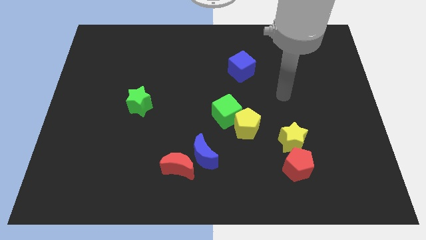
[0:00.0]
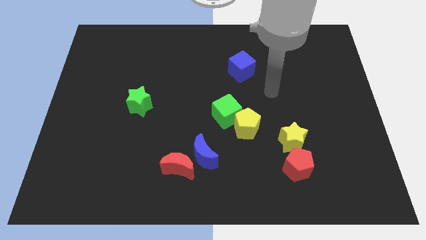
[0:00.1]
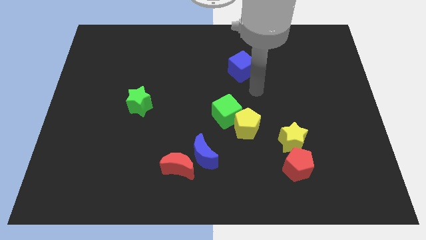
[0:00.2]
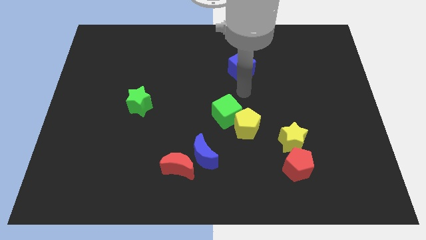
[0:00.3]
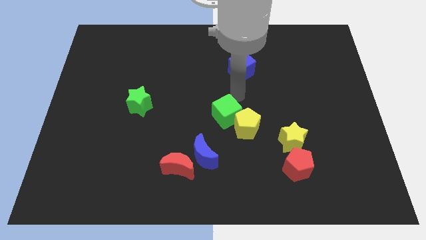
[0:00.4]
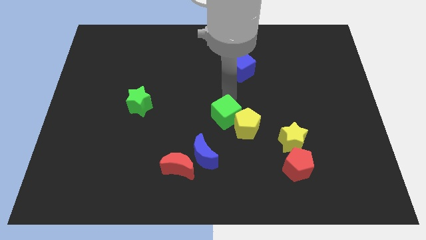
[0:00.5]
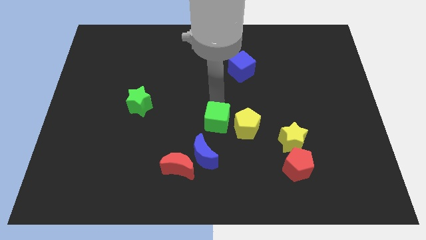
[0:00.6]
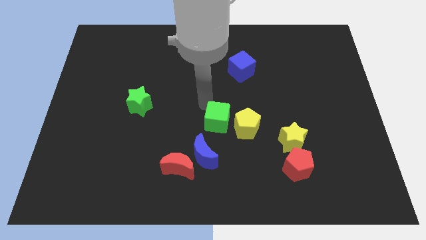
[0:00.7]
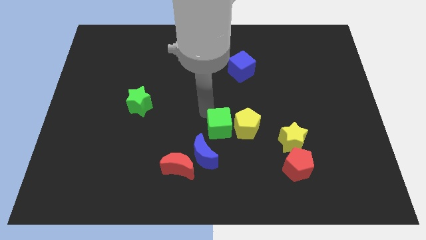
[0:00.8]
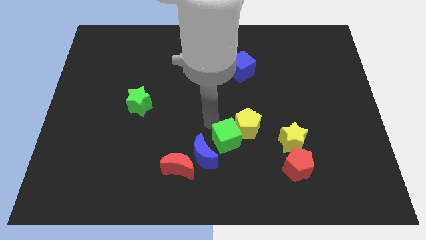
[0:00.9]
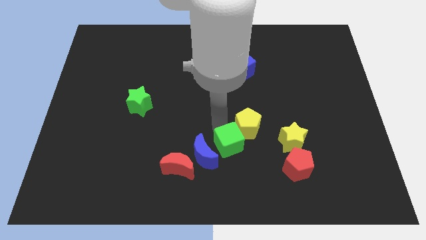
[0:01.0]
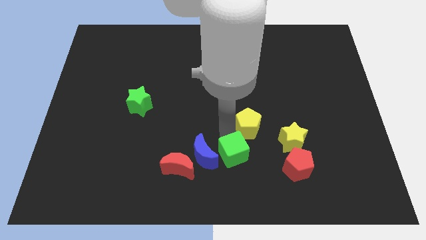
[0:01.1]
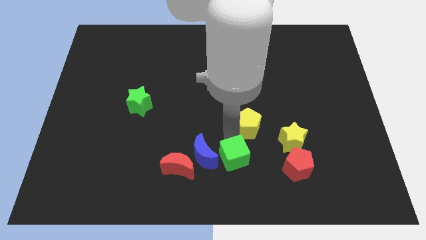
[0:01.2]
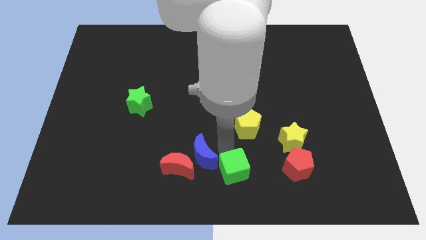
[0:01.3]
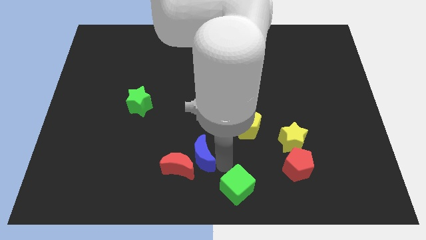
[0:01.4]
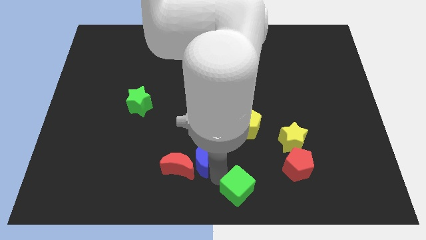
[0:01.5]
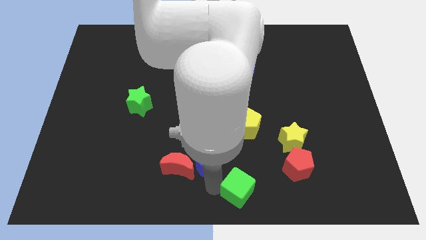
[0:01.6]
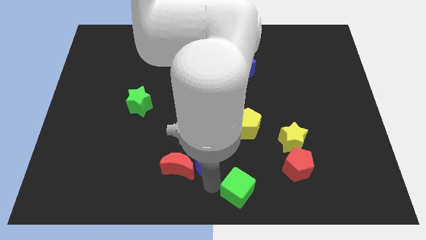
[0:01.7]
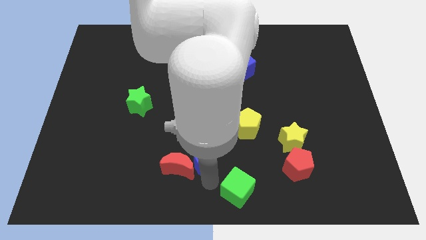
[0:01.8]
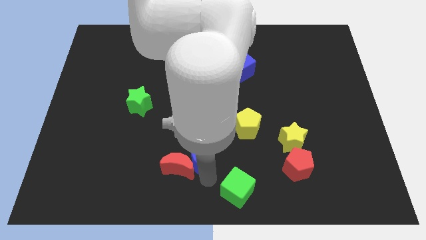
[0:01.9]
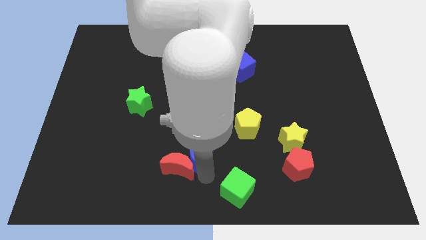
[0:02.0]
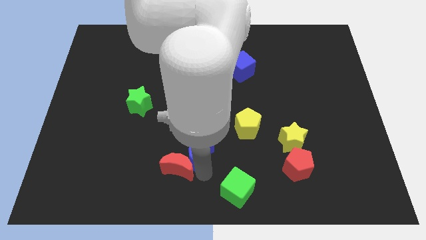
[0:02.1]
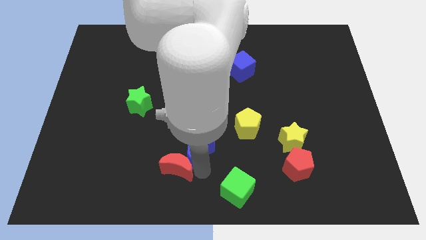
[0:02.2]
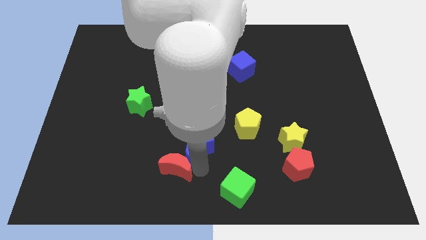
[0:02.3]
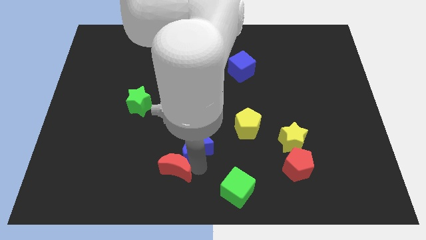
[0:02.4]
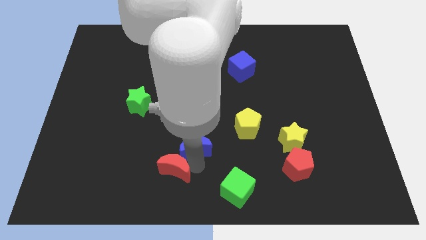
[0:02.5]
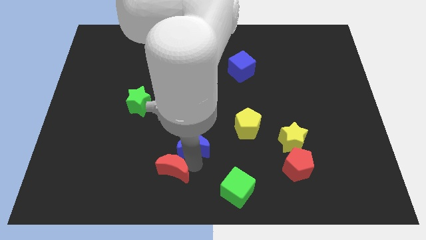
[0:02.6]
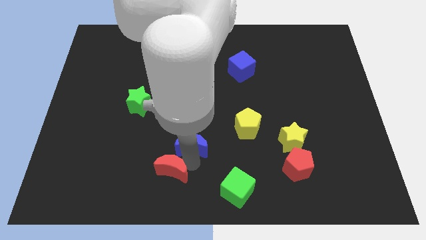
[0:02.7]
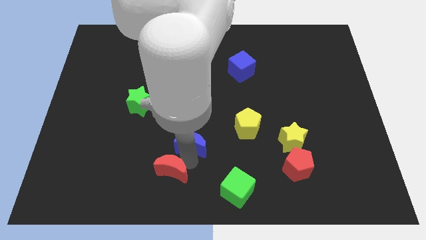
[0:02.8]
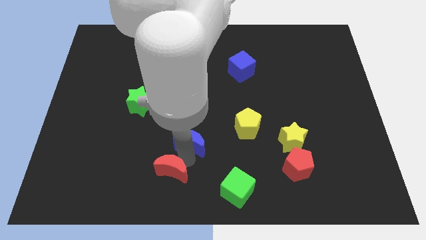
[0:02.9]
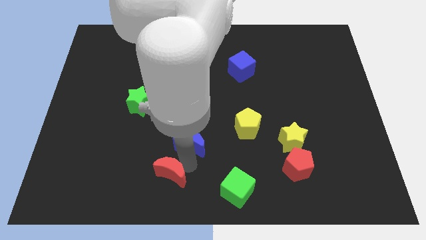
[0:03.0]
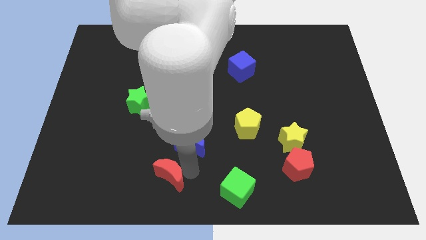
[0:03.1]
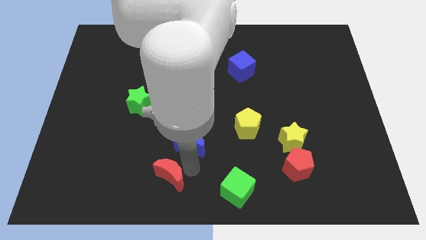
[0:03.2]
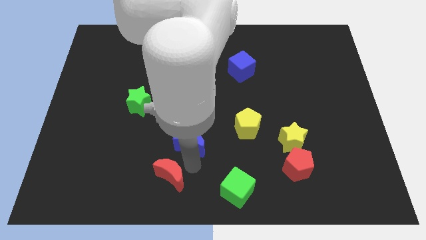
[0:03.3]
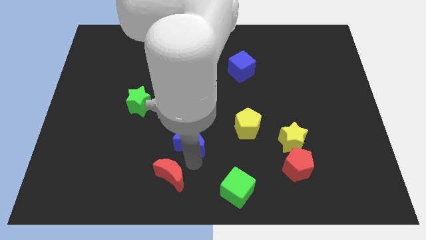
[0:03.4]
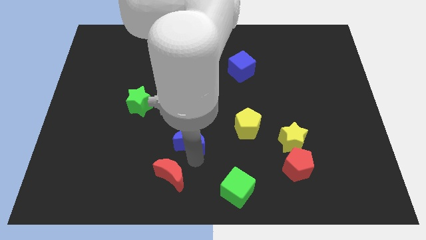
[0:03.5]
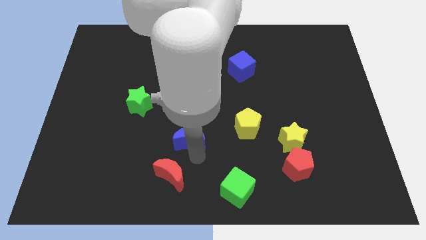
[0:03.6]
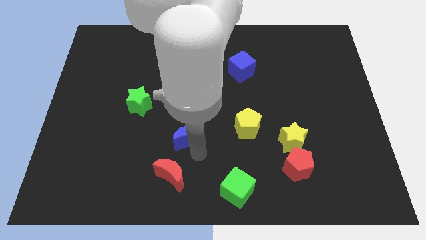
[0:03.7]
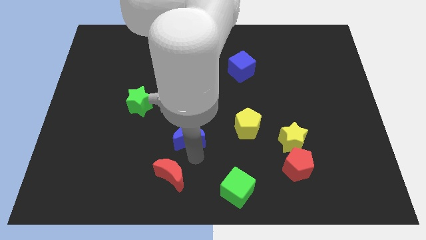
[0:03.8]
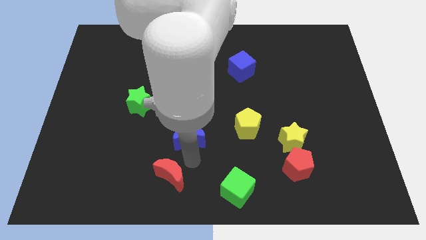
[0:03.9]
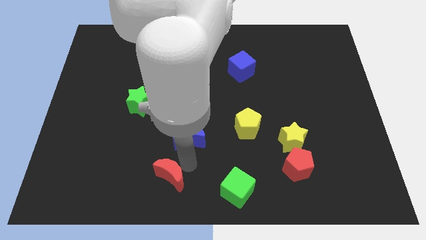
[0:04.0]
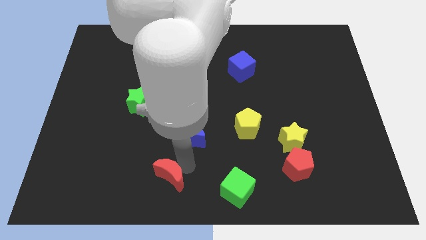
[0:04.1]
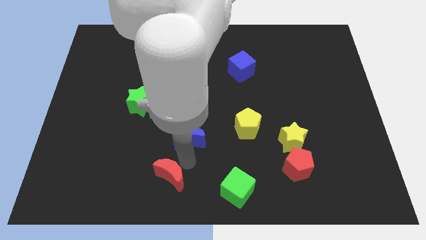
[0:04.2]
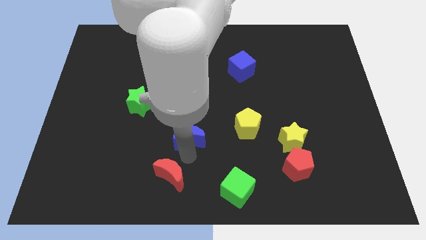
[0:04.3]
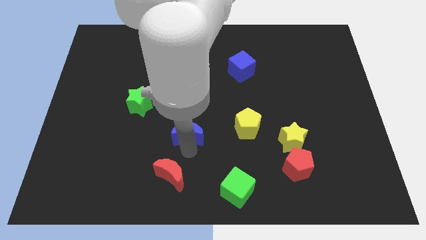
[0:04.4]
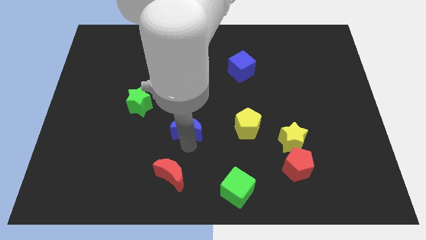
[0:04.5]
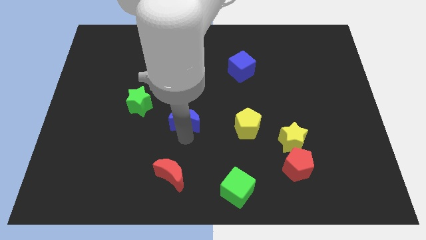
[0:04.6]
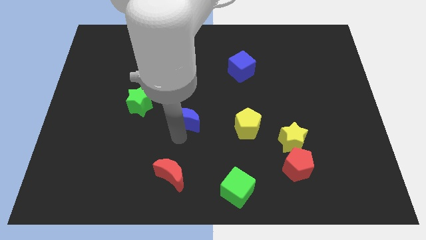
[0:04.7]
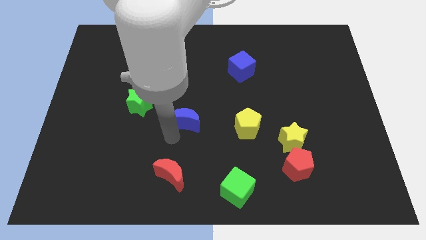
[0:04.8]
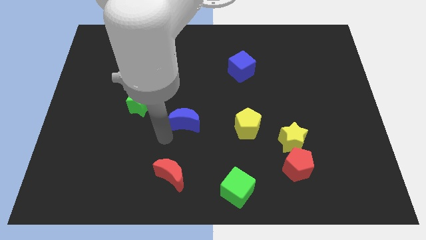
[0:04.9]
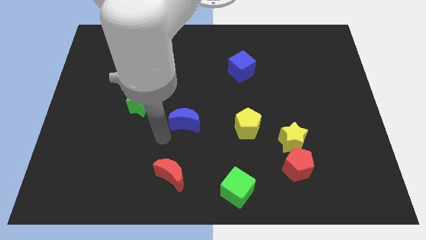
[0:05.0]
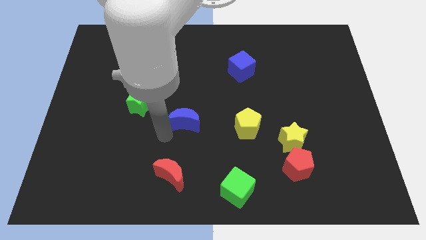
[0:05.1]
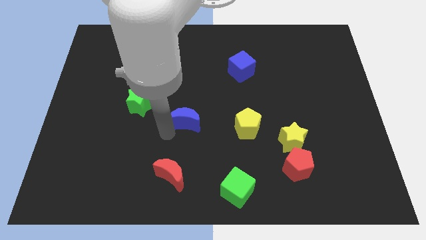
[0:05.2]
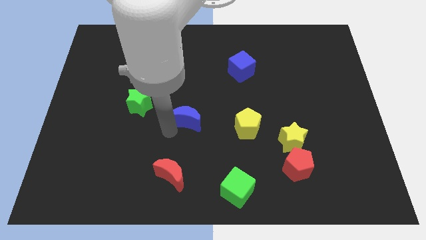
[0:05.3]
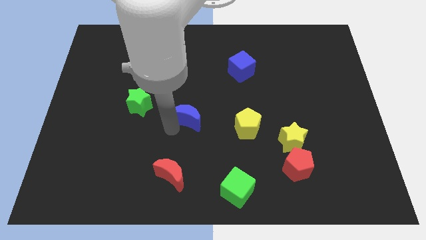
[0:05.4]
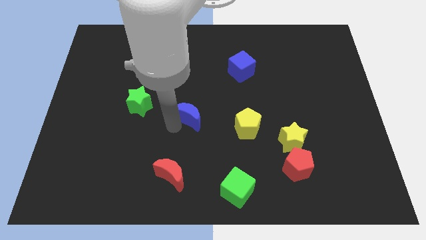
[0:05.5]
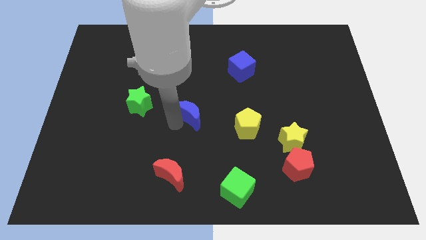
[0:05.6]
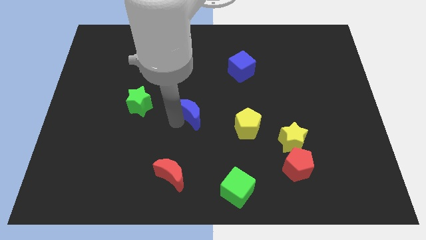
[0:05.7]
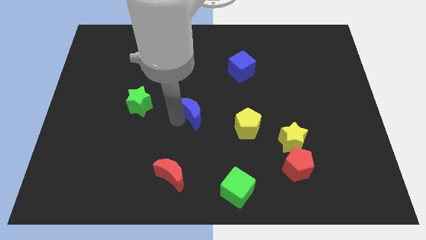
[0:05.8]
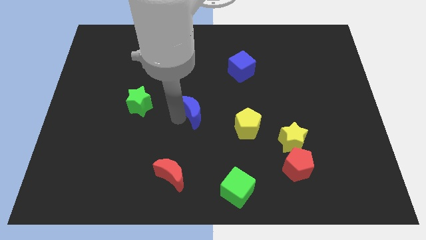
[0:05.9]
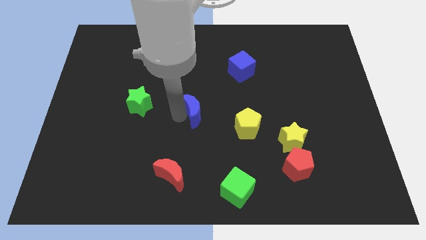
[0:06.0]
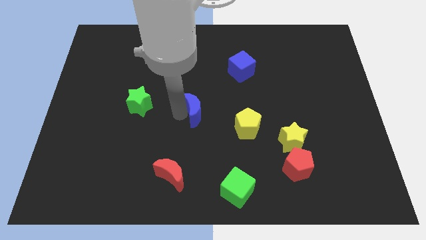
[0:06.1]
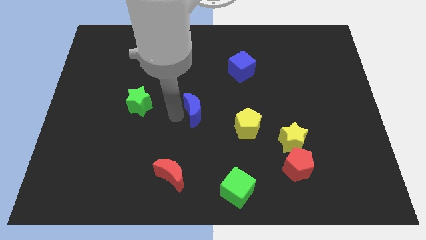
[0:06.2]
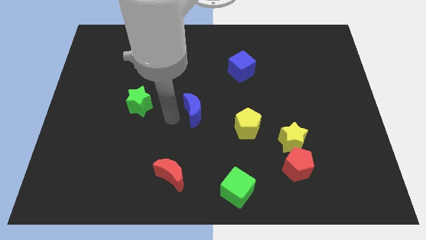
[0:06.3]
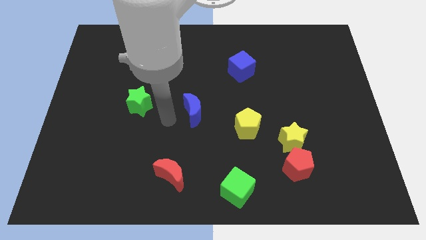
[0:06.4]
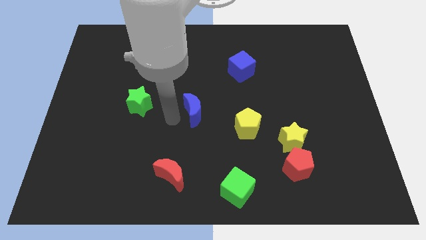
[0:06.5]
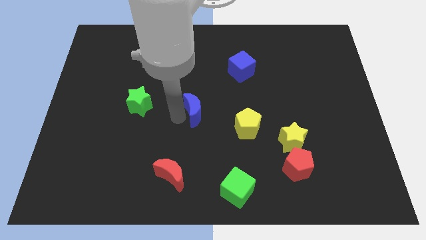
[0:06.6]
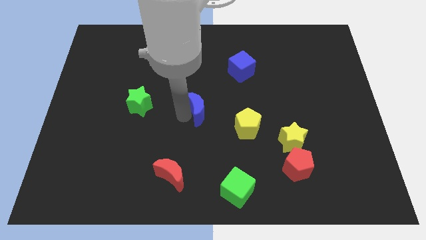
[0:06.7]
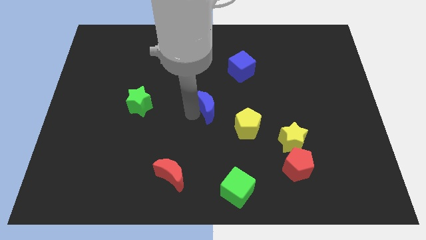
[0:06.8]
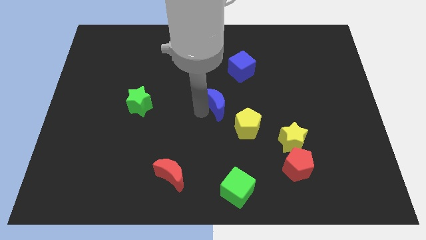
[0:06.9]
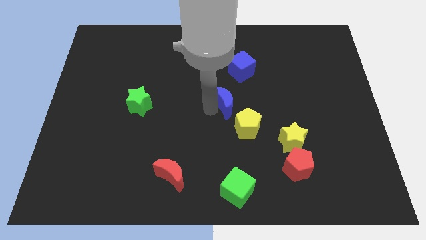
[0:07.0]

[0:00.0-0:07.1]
push the blue moon above the yellow pentagon
